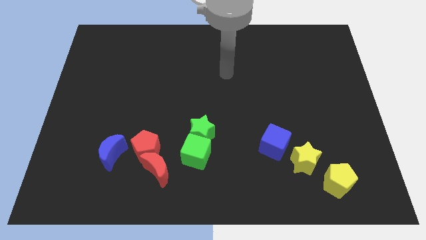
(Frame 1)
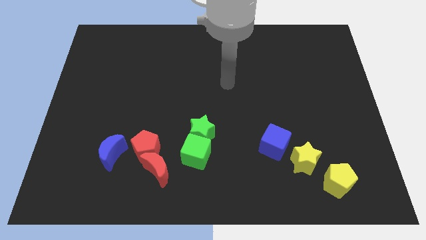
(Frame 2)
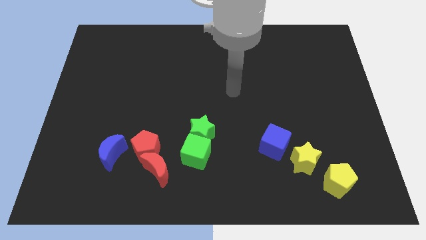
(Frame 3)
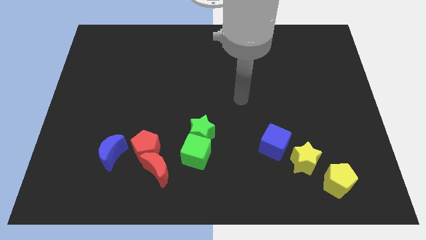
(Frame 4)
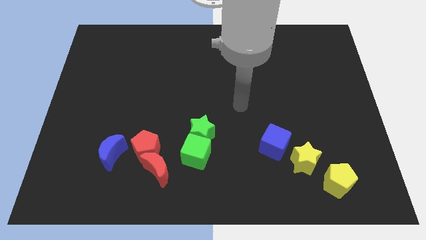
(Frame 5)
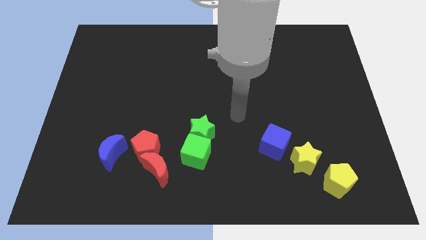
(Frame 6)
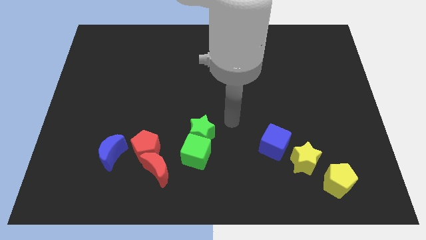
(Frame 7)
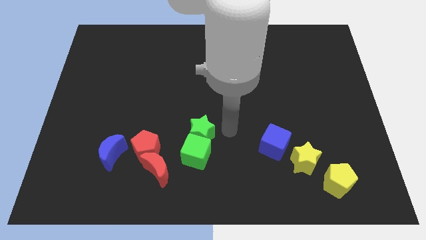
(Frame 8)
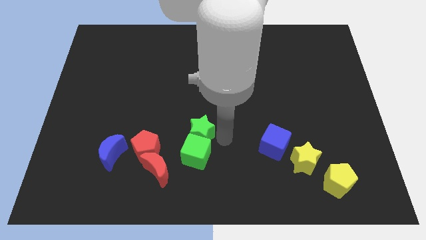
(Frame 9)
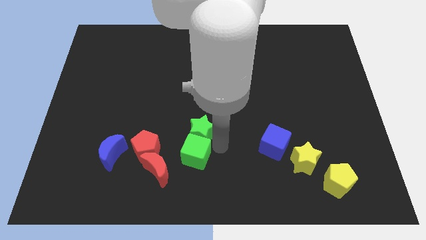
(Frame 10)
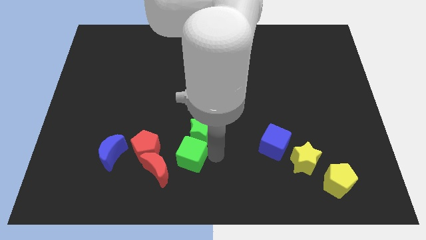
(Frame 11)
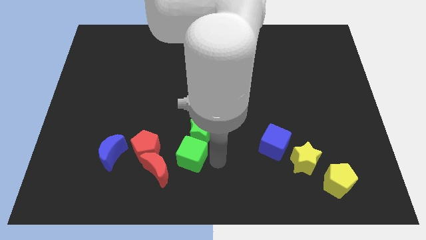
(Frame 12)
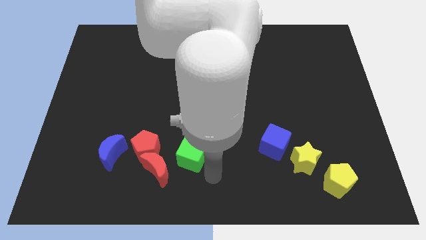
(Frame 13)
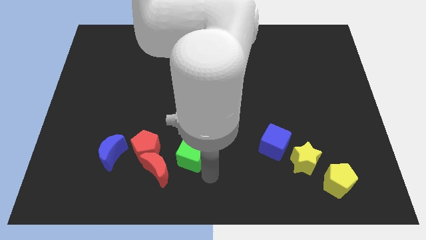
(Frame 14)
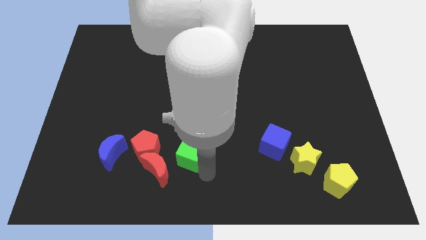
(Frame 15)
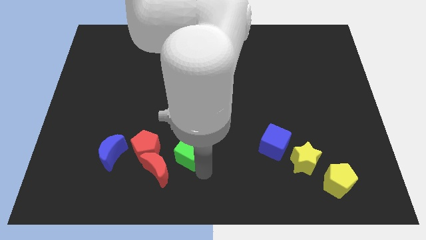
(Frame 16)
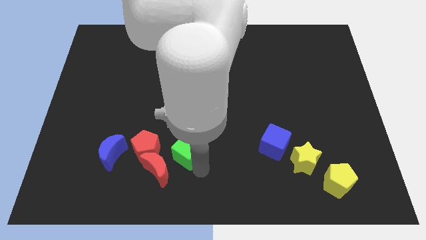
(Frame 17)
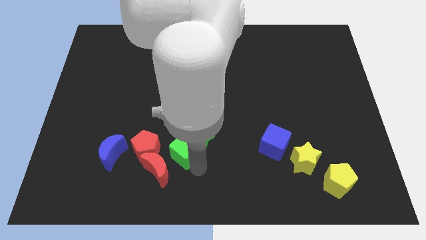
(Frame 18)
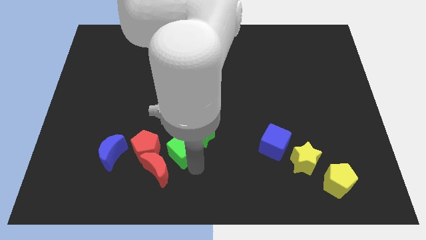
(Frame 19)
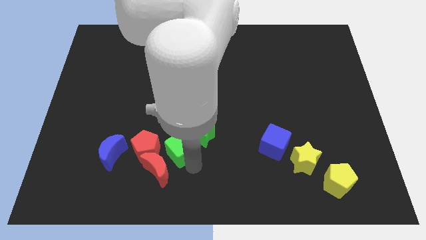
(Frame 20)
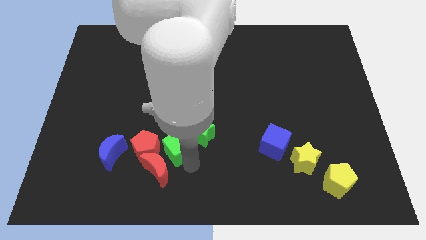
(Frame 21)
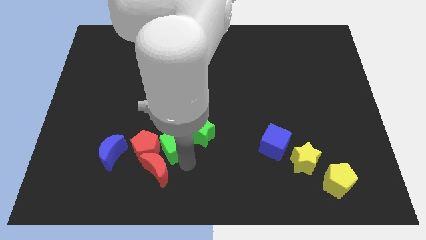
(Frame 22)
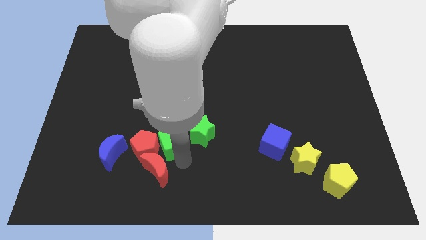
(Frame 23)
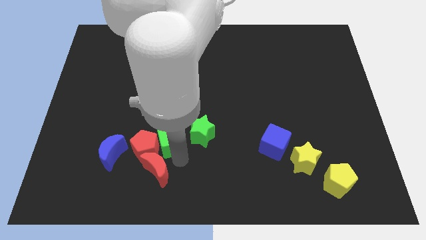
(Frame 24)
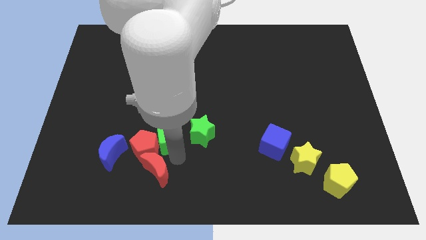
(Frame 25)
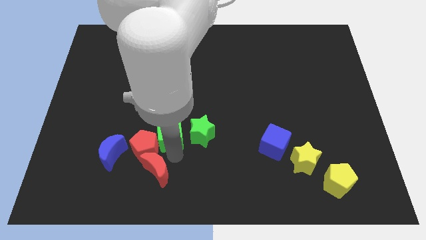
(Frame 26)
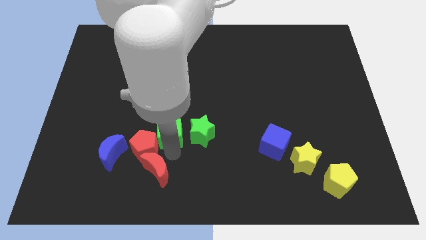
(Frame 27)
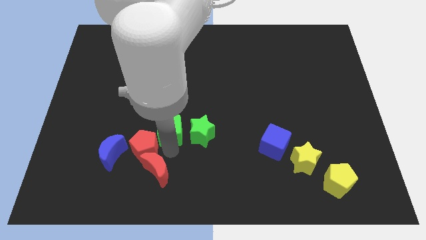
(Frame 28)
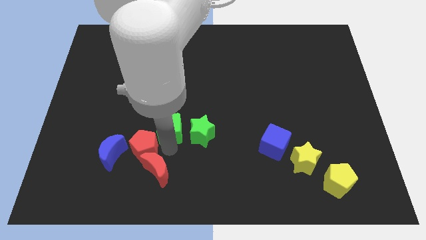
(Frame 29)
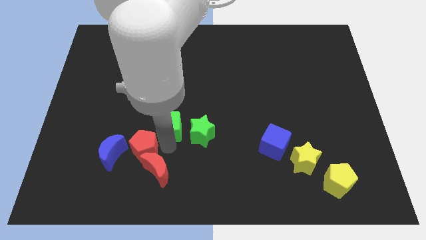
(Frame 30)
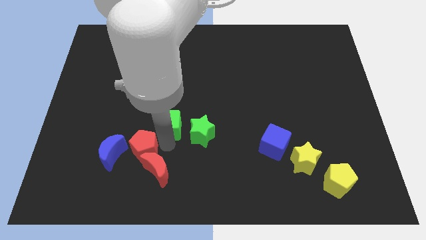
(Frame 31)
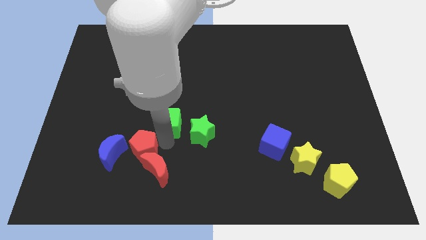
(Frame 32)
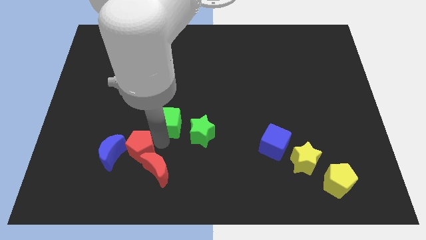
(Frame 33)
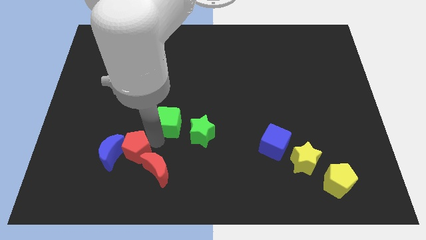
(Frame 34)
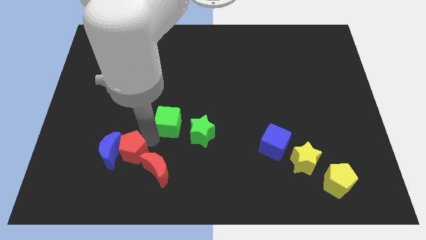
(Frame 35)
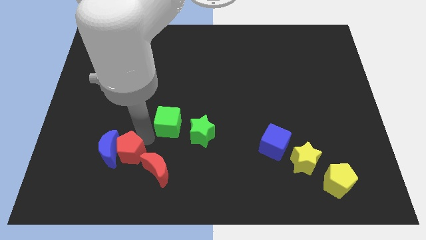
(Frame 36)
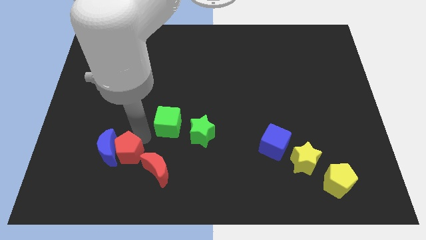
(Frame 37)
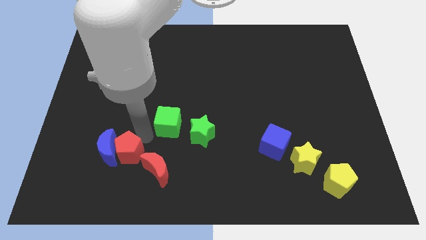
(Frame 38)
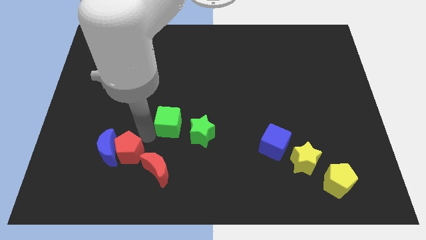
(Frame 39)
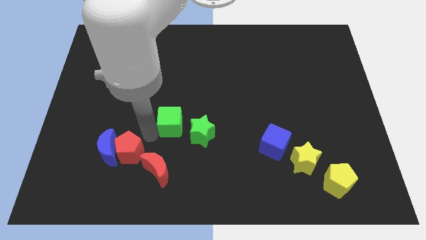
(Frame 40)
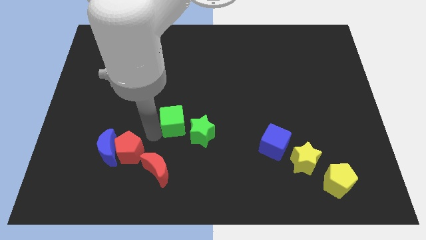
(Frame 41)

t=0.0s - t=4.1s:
slide the green cube up slightly

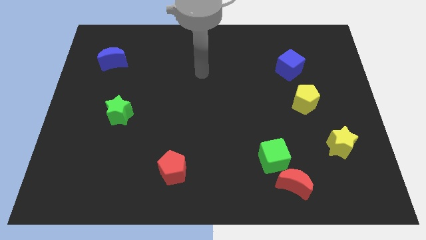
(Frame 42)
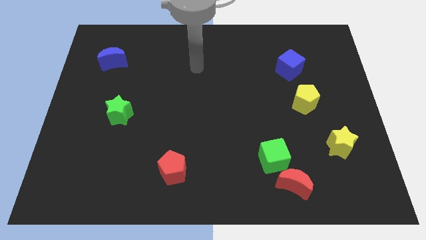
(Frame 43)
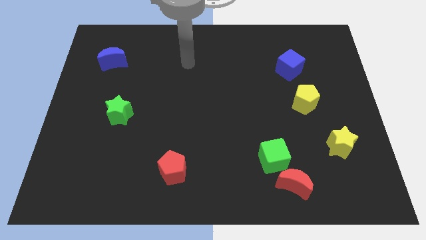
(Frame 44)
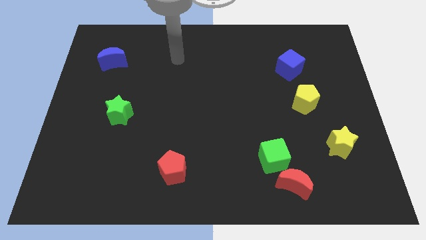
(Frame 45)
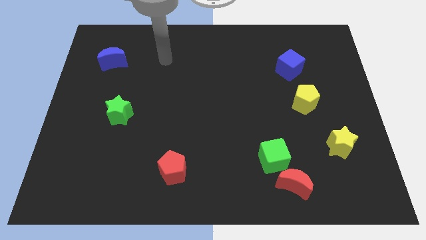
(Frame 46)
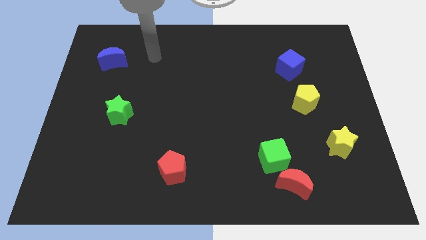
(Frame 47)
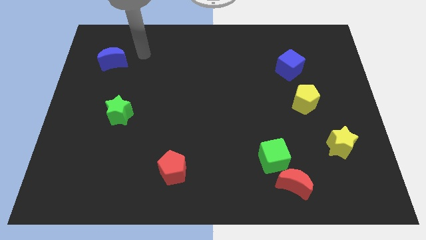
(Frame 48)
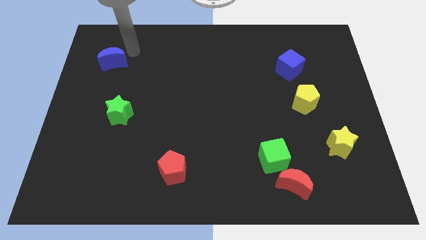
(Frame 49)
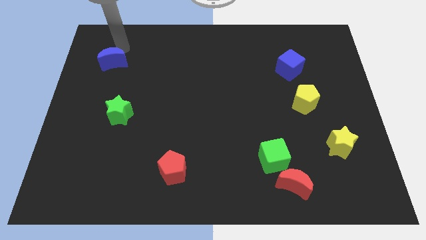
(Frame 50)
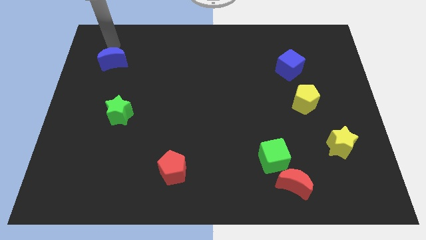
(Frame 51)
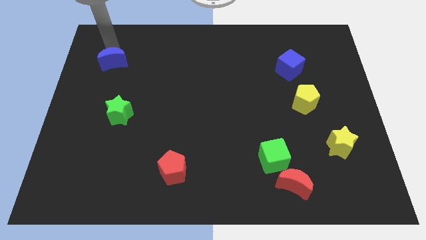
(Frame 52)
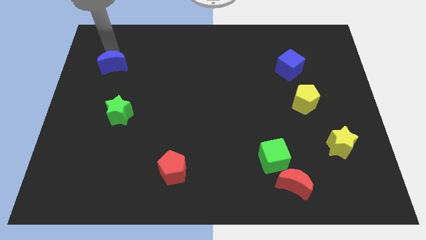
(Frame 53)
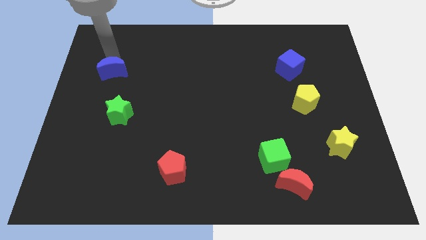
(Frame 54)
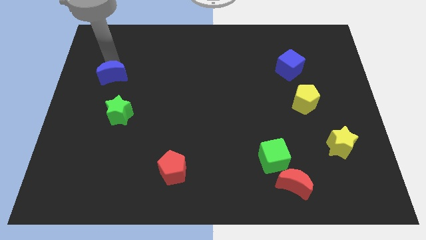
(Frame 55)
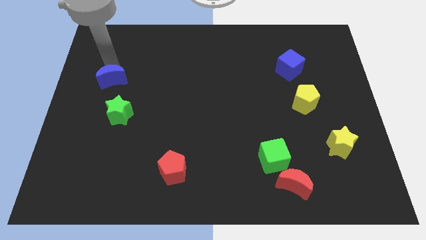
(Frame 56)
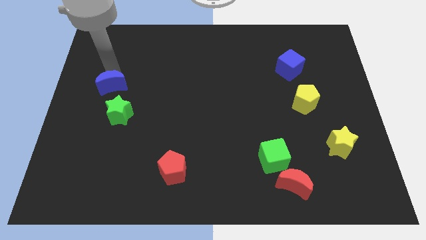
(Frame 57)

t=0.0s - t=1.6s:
slightly slide the blue moon down

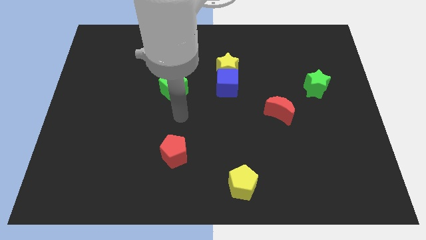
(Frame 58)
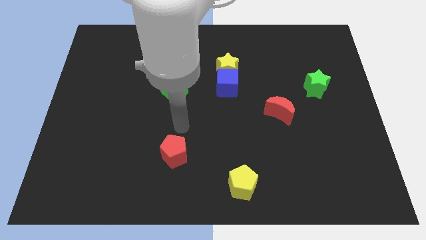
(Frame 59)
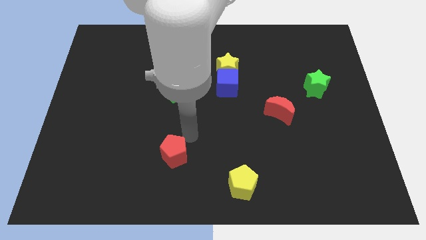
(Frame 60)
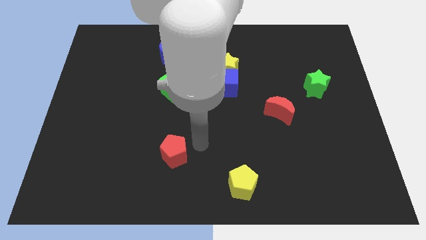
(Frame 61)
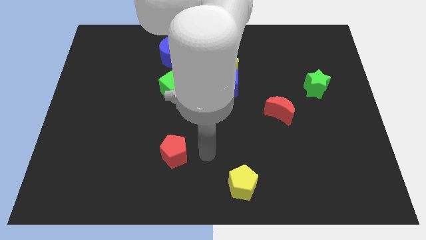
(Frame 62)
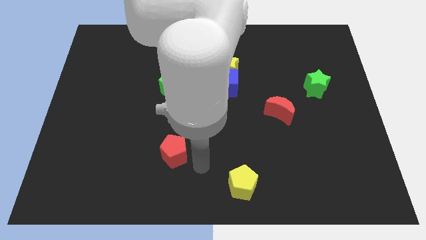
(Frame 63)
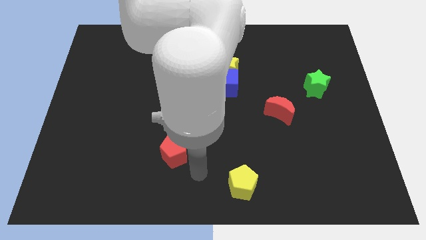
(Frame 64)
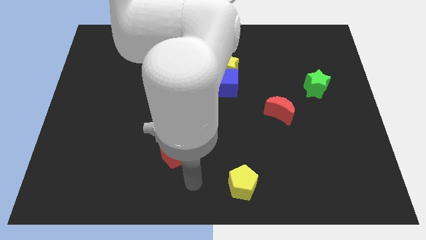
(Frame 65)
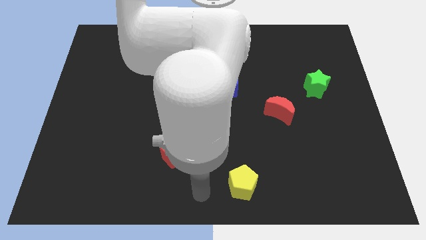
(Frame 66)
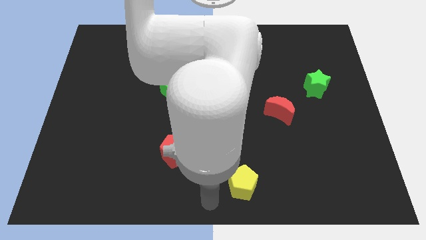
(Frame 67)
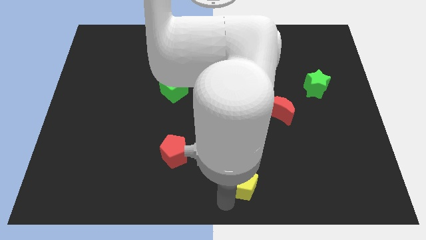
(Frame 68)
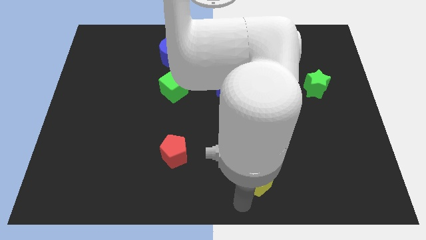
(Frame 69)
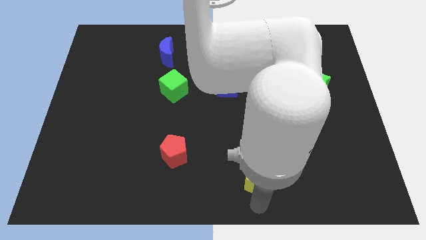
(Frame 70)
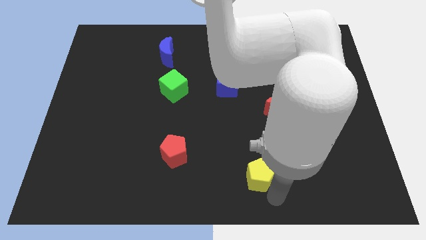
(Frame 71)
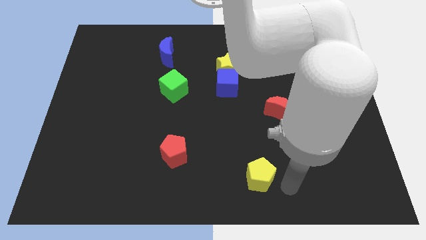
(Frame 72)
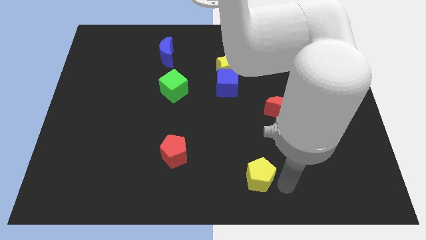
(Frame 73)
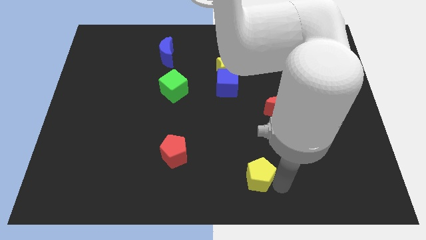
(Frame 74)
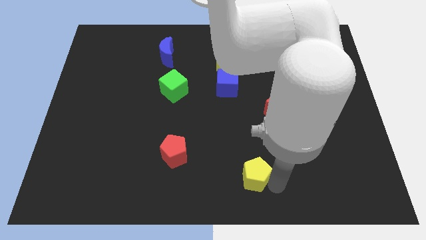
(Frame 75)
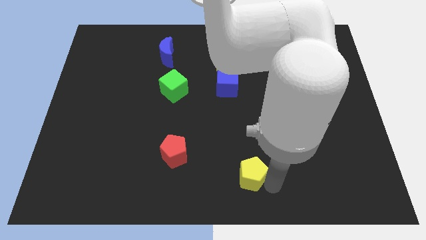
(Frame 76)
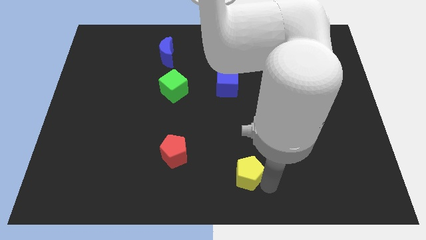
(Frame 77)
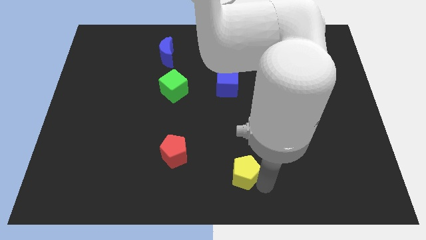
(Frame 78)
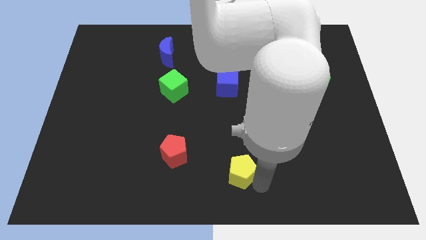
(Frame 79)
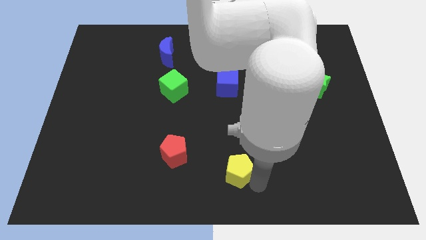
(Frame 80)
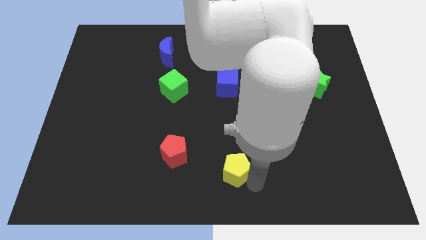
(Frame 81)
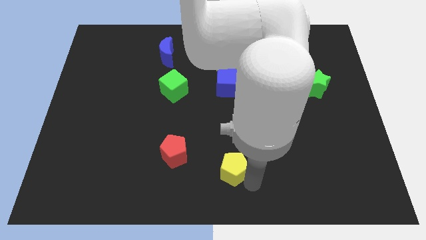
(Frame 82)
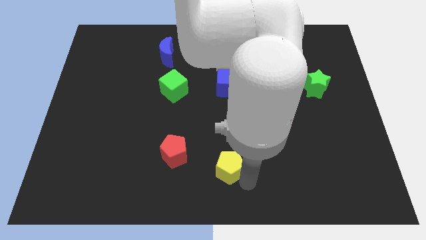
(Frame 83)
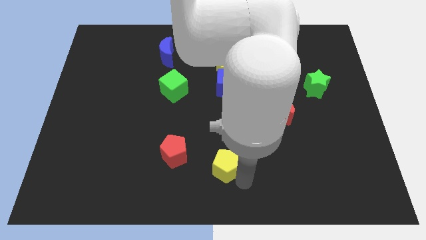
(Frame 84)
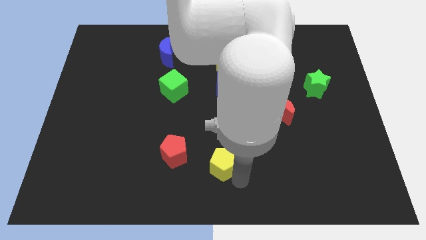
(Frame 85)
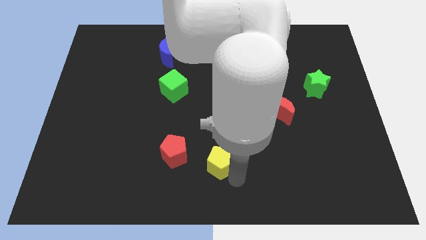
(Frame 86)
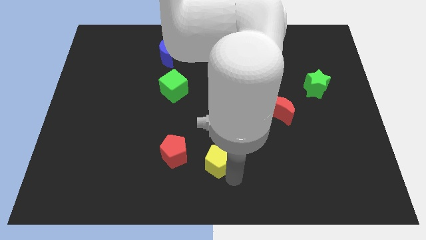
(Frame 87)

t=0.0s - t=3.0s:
slide the yellow pentagon a bit diagonally up and left
